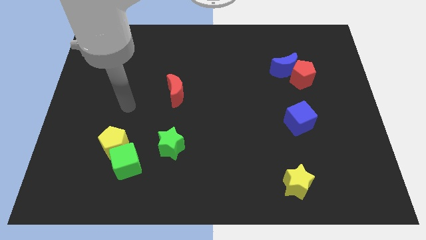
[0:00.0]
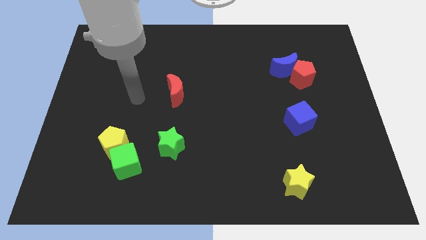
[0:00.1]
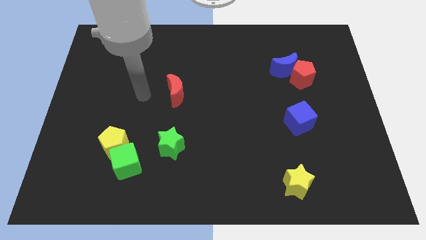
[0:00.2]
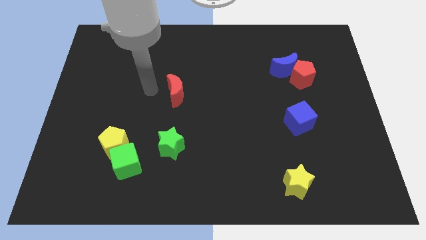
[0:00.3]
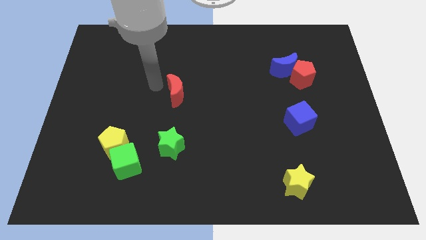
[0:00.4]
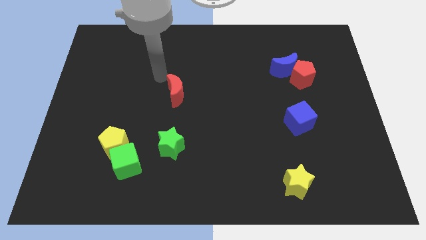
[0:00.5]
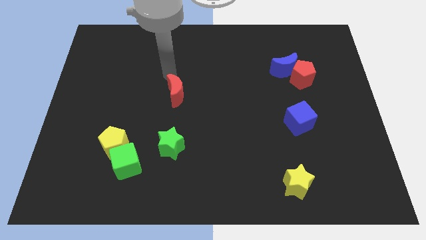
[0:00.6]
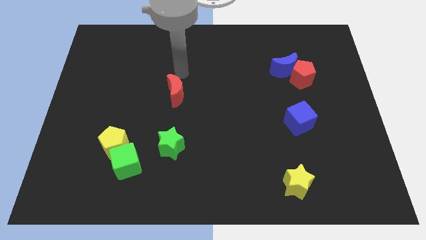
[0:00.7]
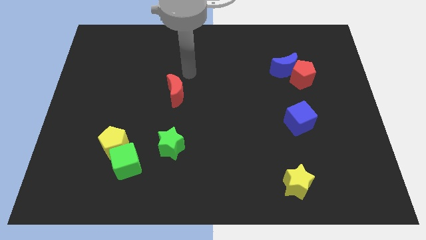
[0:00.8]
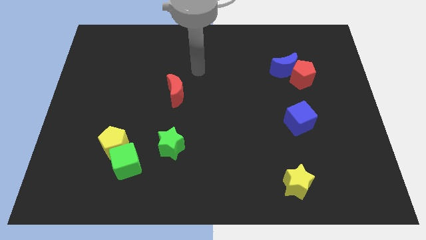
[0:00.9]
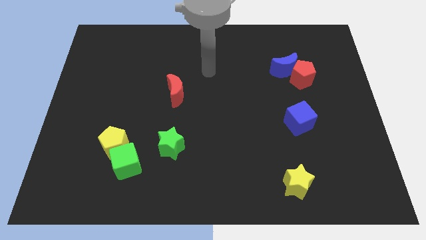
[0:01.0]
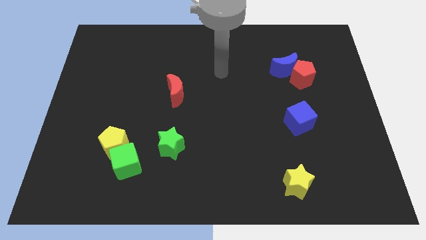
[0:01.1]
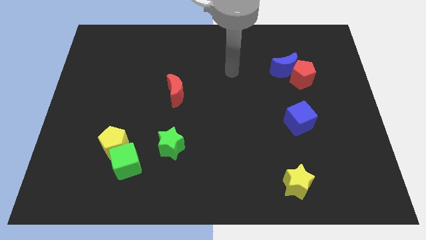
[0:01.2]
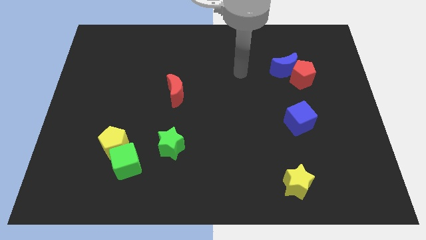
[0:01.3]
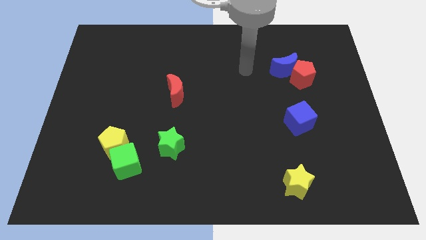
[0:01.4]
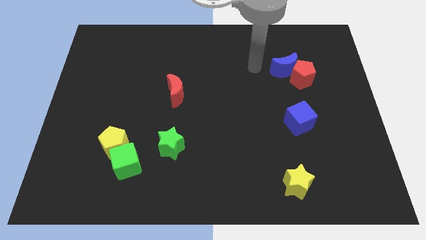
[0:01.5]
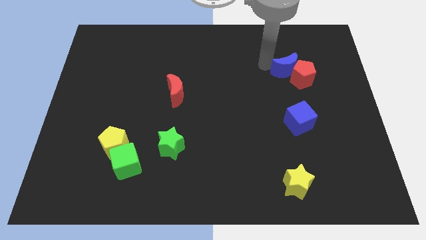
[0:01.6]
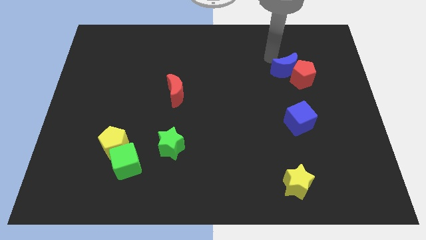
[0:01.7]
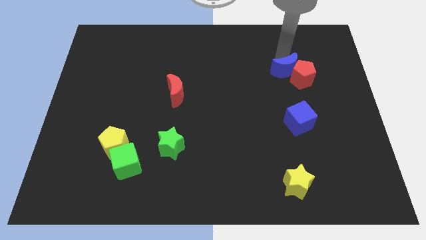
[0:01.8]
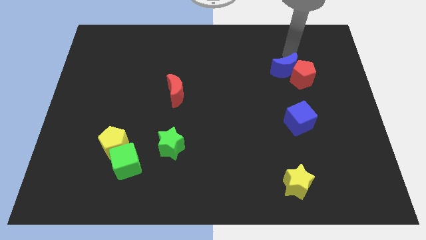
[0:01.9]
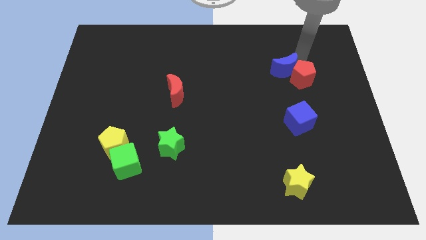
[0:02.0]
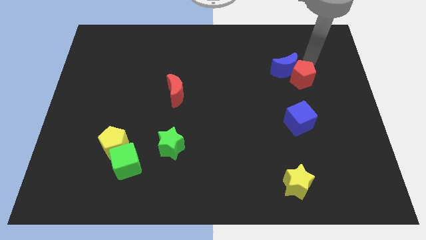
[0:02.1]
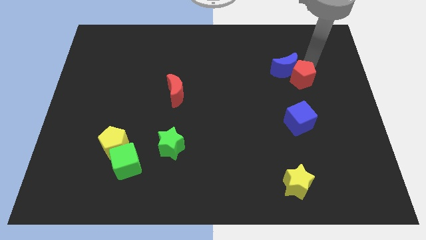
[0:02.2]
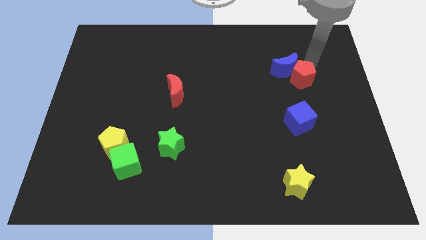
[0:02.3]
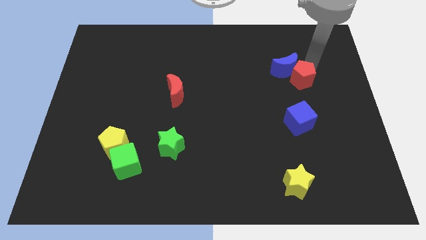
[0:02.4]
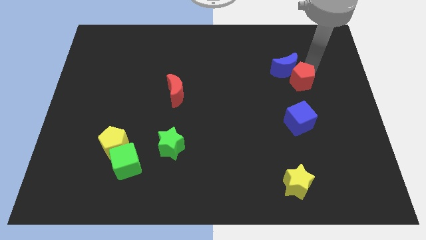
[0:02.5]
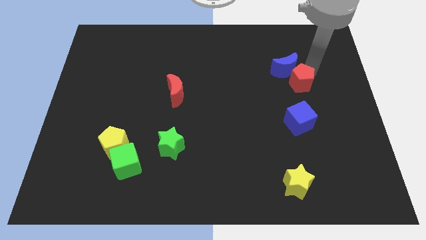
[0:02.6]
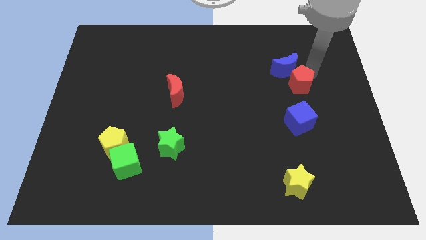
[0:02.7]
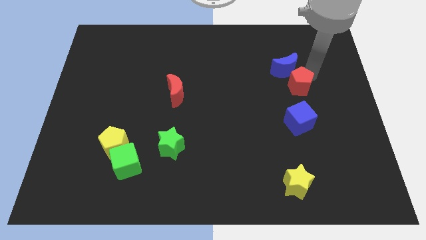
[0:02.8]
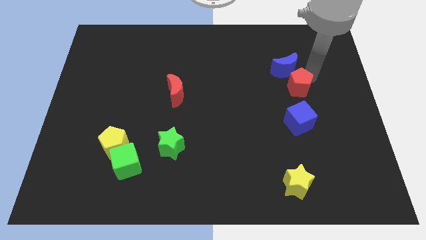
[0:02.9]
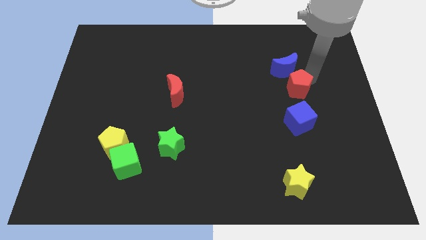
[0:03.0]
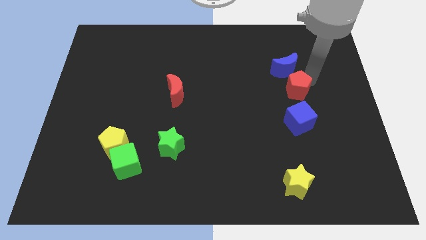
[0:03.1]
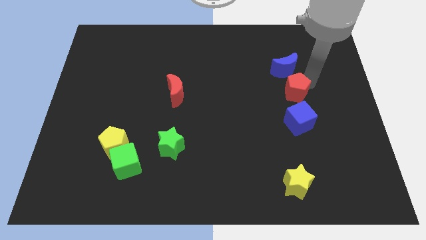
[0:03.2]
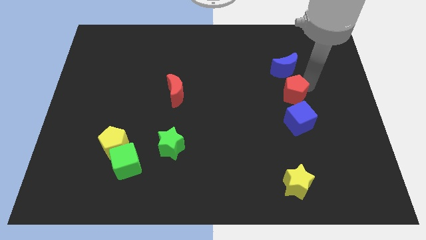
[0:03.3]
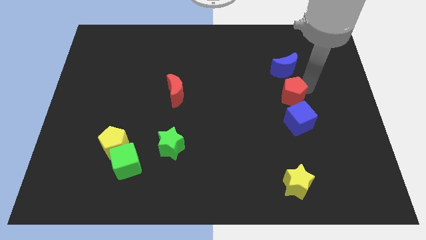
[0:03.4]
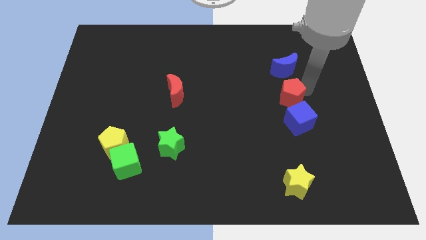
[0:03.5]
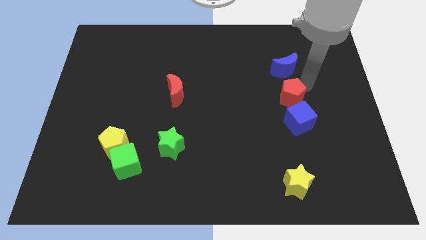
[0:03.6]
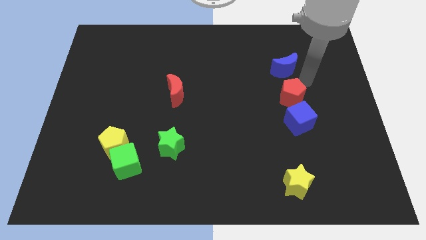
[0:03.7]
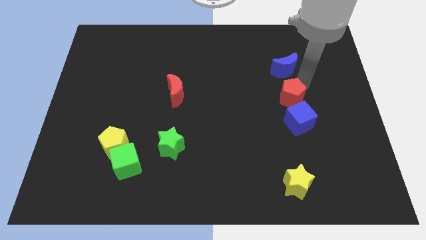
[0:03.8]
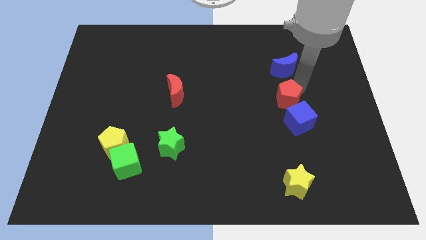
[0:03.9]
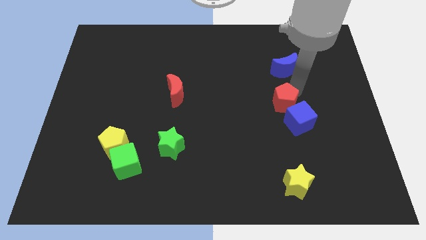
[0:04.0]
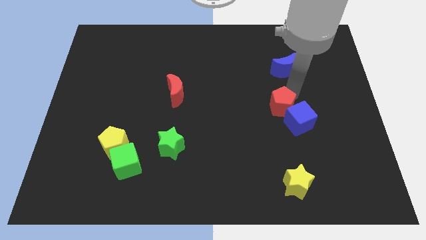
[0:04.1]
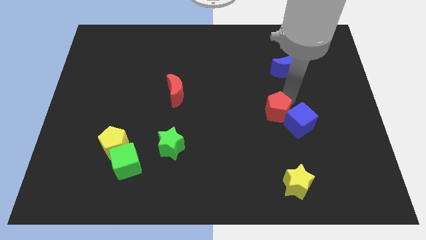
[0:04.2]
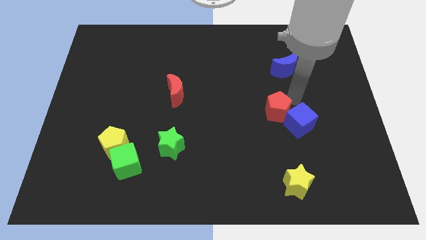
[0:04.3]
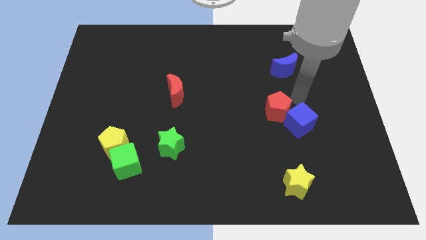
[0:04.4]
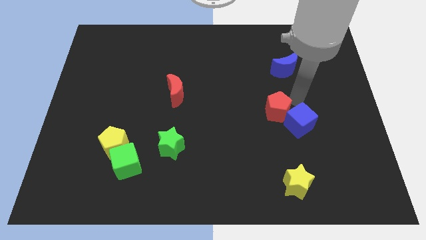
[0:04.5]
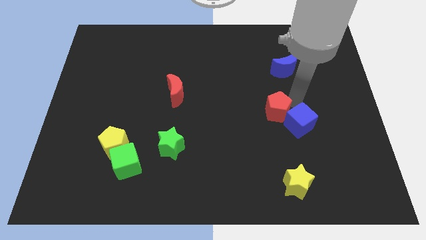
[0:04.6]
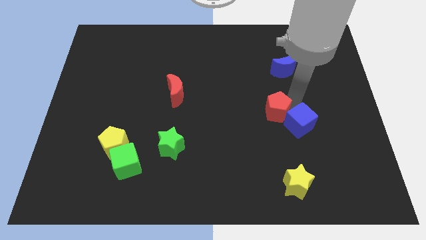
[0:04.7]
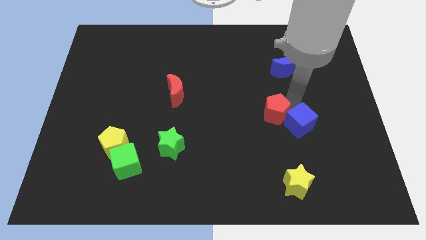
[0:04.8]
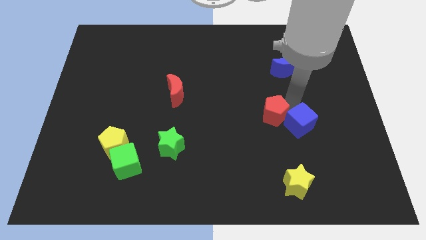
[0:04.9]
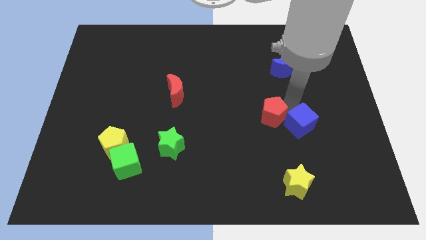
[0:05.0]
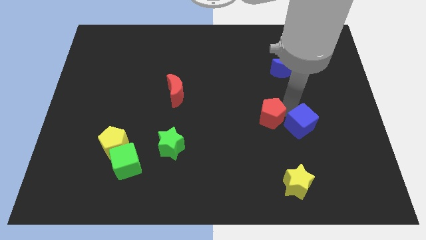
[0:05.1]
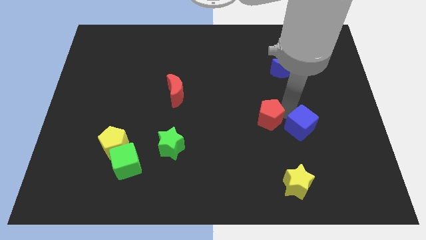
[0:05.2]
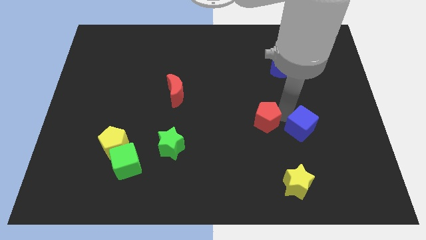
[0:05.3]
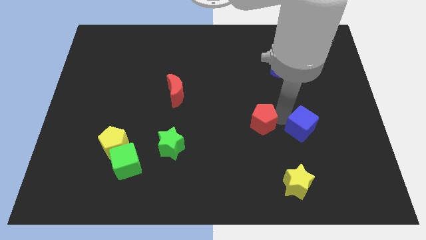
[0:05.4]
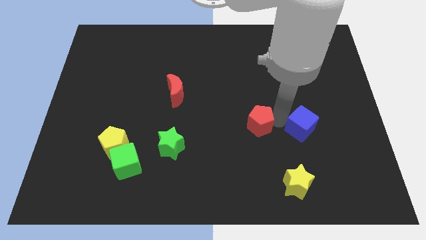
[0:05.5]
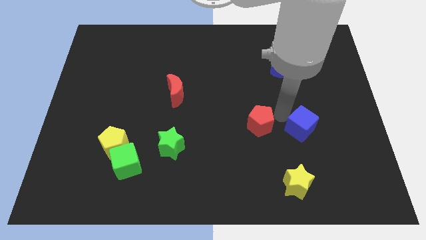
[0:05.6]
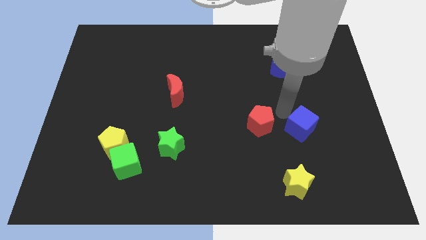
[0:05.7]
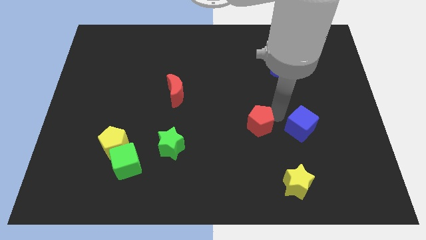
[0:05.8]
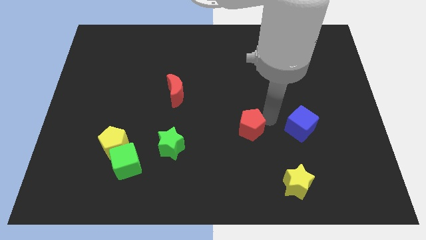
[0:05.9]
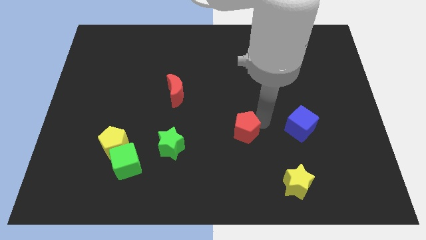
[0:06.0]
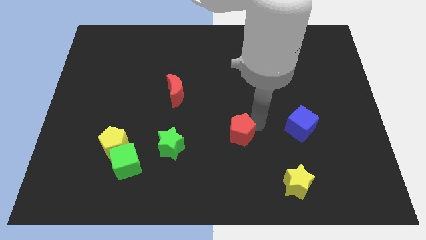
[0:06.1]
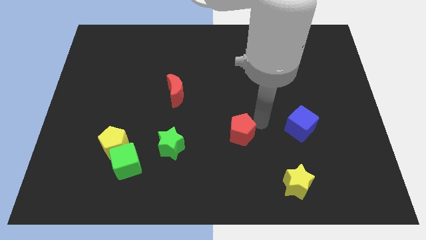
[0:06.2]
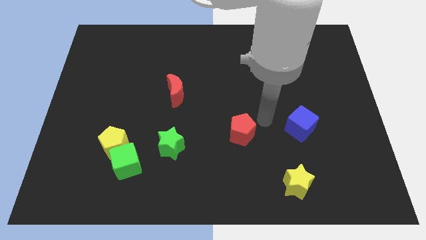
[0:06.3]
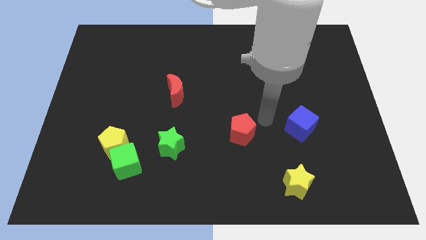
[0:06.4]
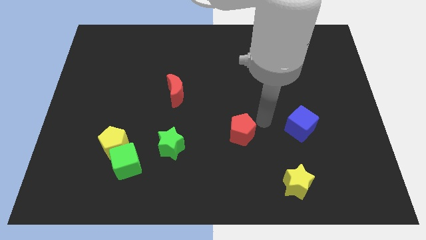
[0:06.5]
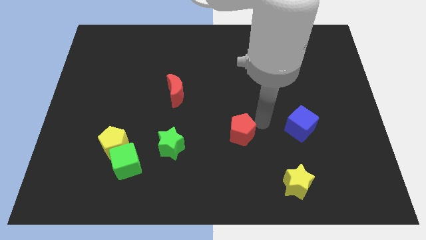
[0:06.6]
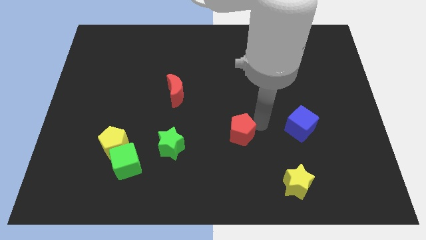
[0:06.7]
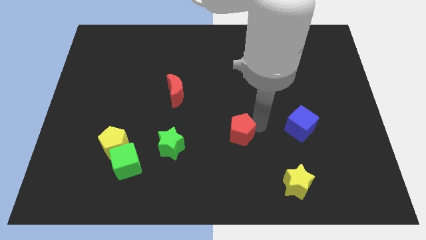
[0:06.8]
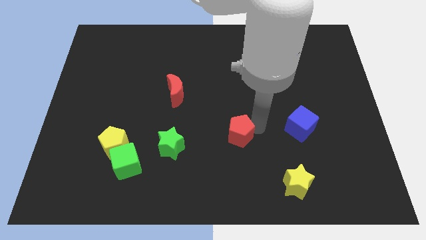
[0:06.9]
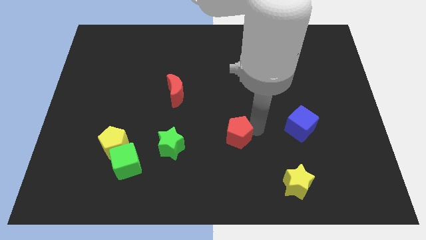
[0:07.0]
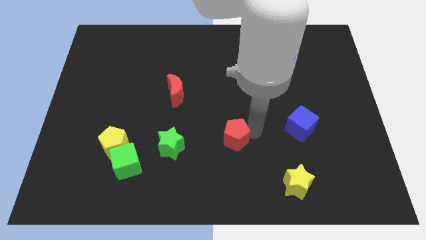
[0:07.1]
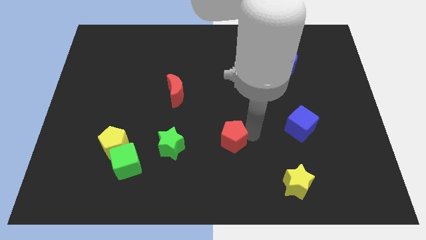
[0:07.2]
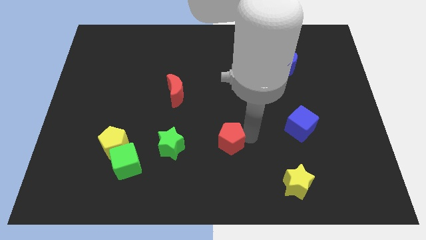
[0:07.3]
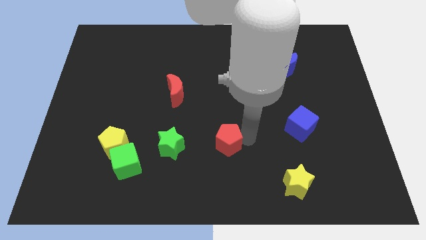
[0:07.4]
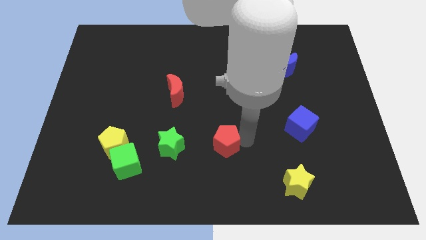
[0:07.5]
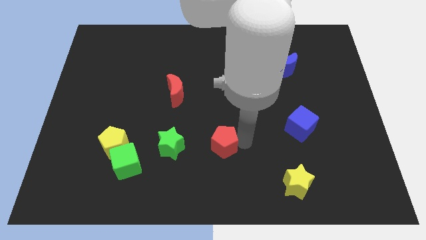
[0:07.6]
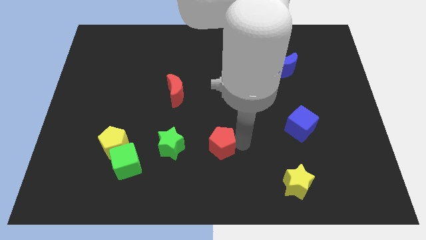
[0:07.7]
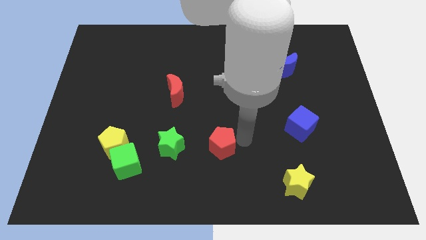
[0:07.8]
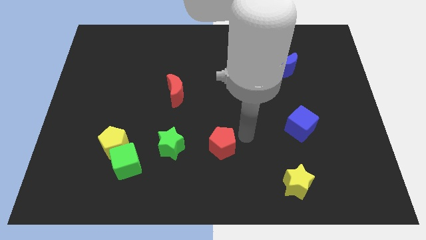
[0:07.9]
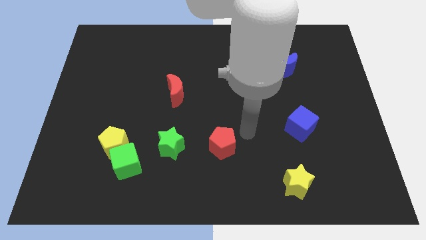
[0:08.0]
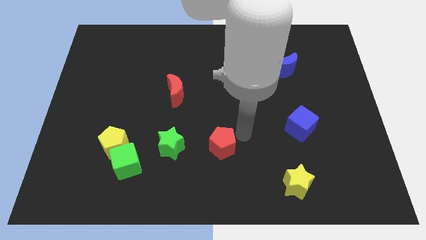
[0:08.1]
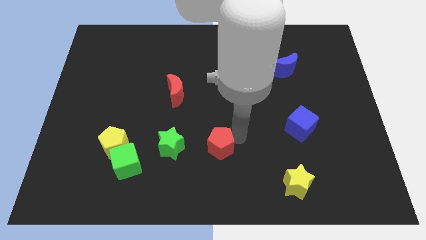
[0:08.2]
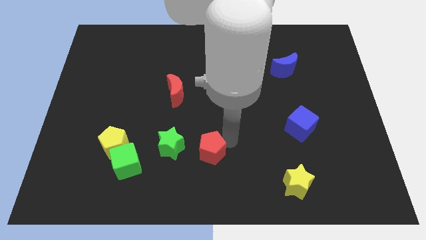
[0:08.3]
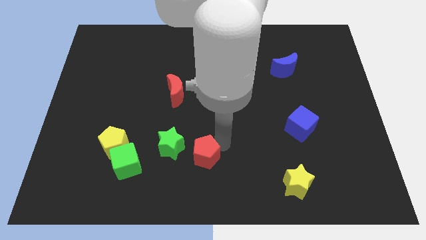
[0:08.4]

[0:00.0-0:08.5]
push the red pentagon diagonally down and to the right of the green star
